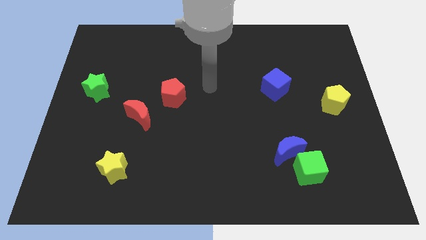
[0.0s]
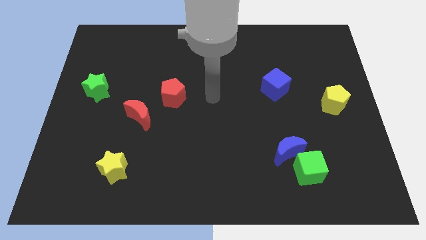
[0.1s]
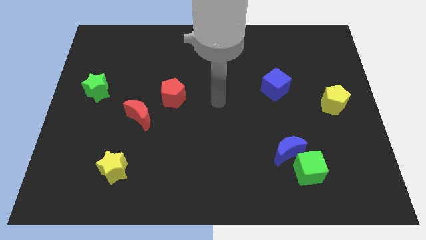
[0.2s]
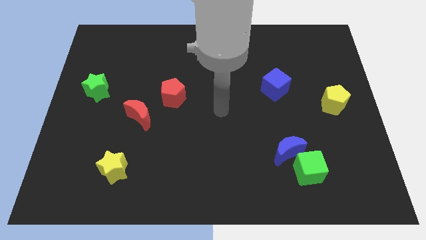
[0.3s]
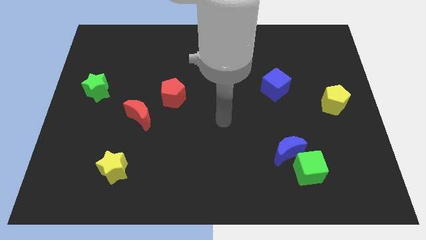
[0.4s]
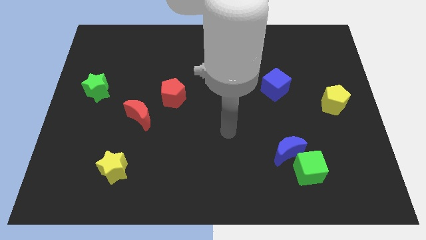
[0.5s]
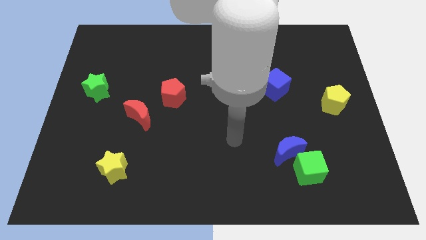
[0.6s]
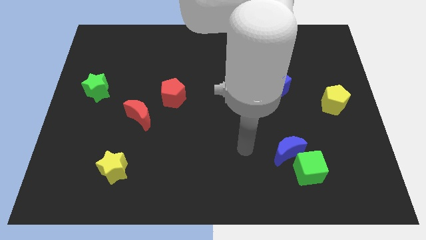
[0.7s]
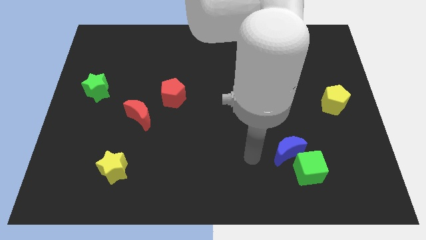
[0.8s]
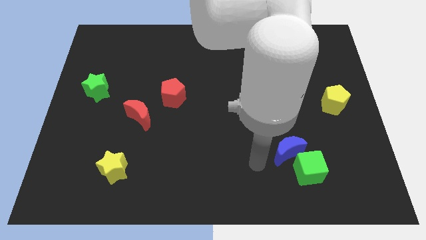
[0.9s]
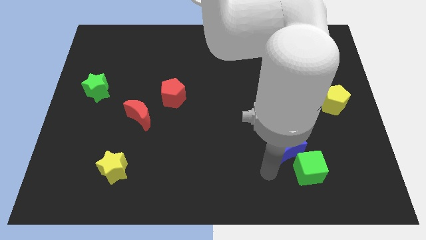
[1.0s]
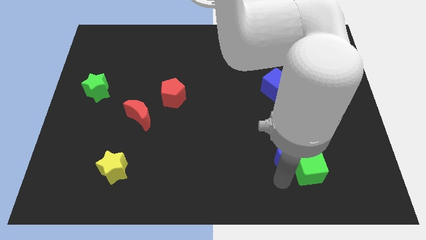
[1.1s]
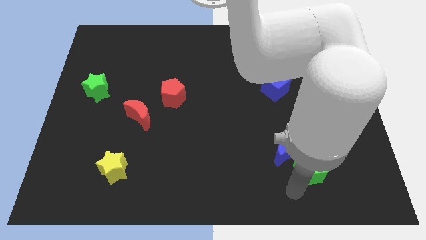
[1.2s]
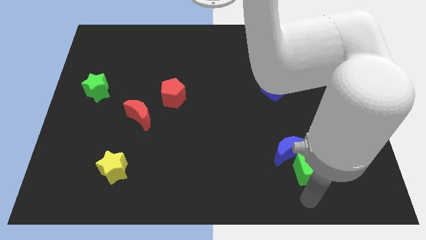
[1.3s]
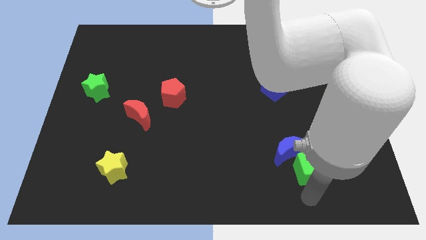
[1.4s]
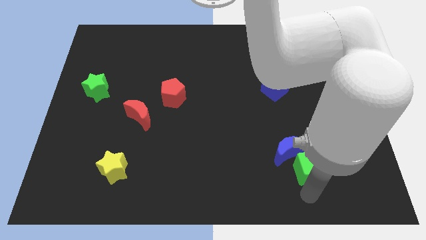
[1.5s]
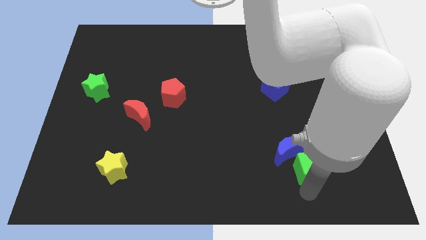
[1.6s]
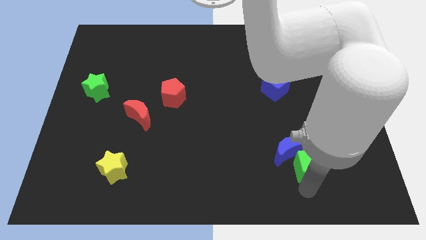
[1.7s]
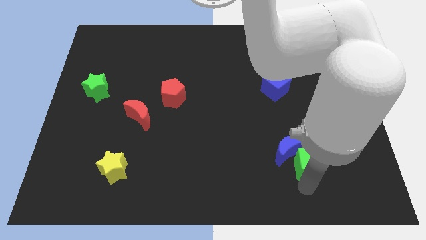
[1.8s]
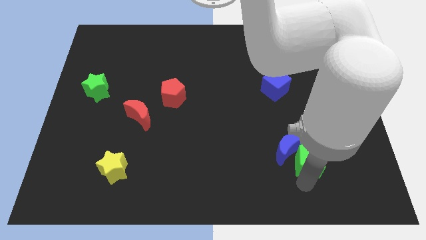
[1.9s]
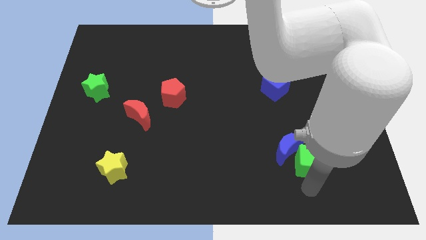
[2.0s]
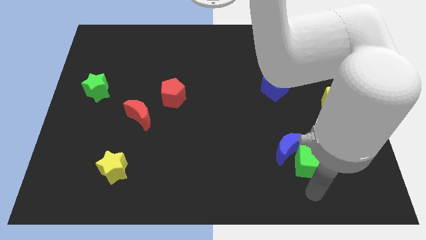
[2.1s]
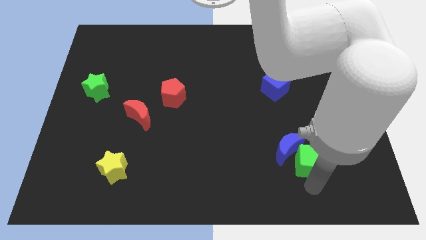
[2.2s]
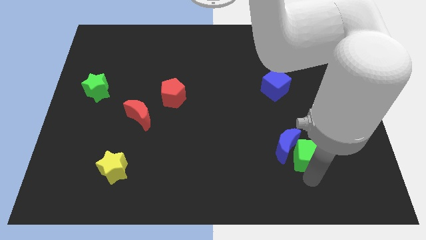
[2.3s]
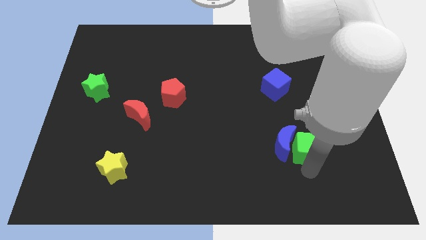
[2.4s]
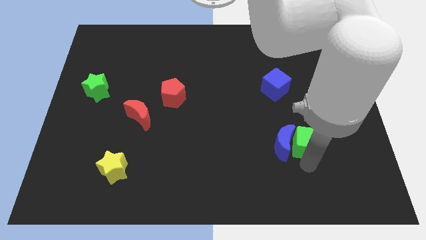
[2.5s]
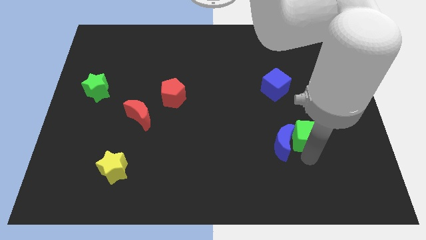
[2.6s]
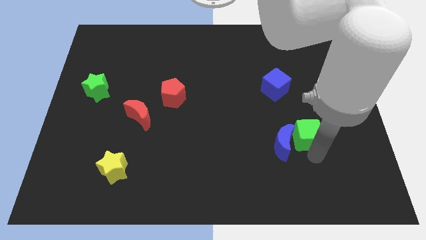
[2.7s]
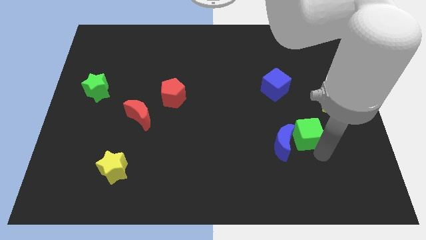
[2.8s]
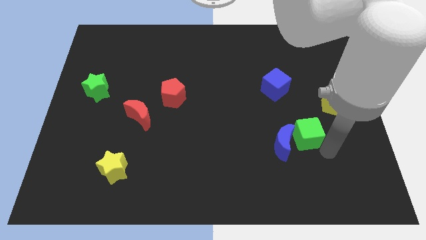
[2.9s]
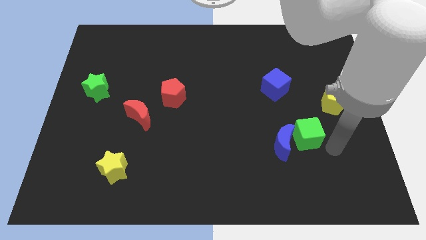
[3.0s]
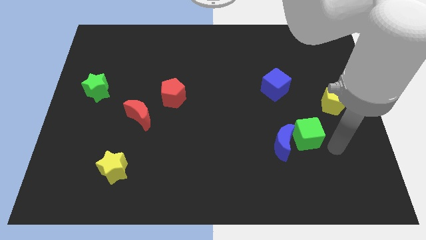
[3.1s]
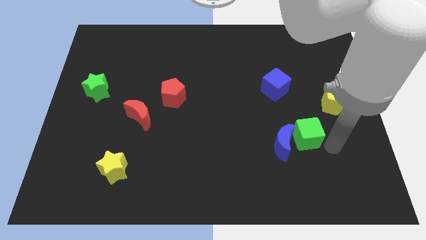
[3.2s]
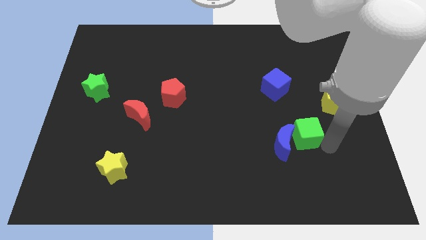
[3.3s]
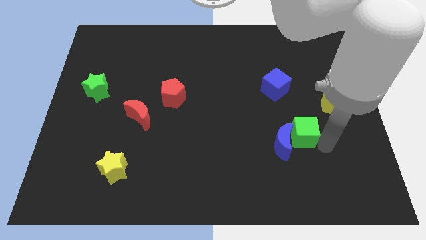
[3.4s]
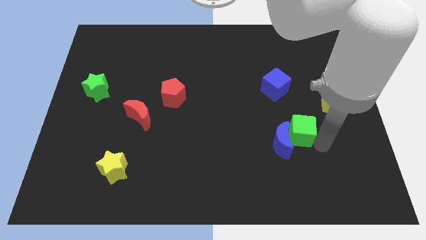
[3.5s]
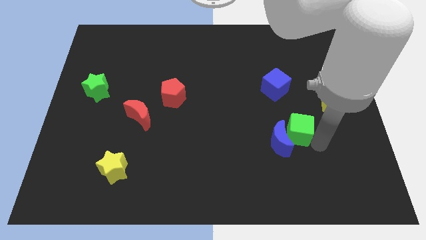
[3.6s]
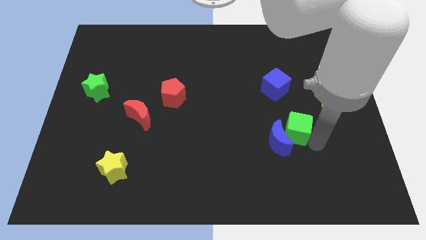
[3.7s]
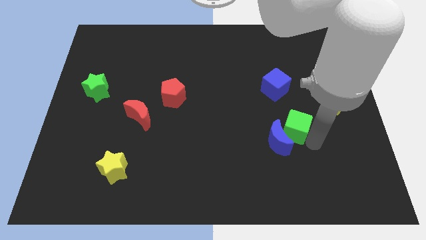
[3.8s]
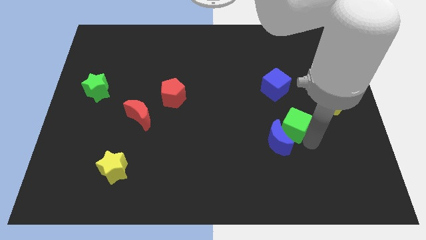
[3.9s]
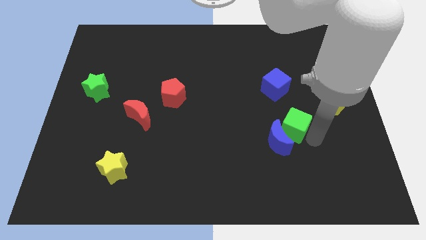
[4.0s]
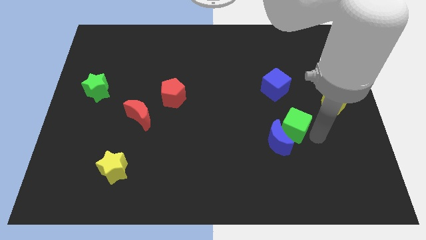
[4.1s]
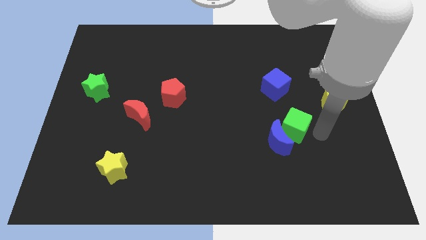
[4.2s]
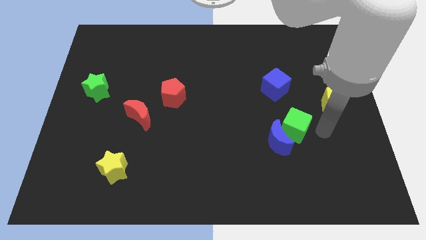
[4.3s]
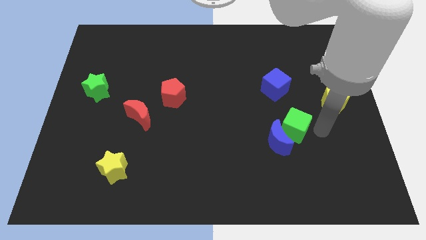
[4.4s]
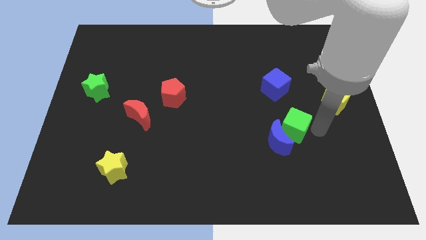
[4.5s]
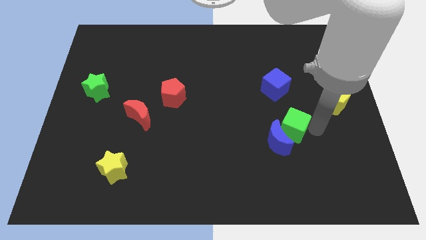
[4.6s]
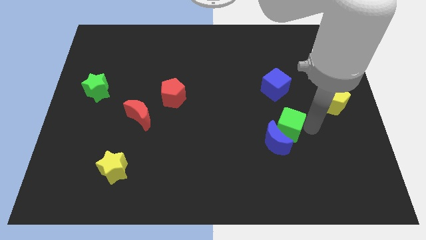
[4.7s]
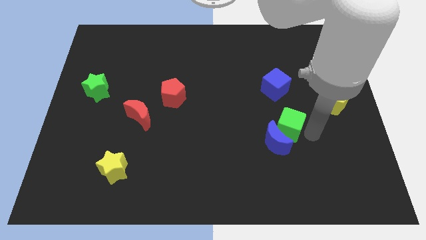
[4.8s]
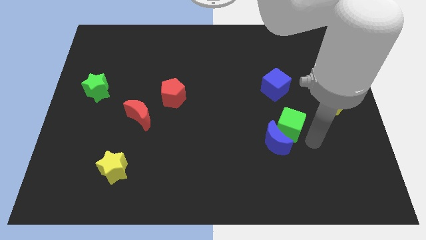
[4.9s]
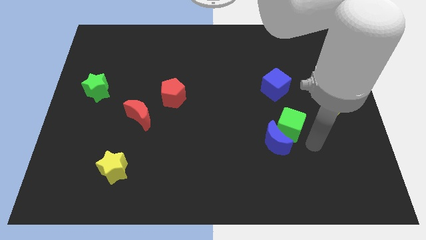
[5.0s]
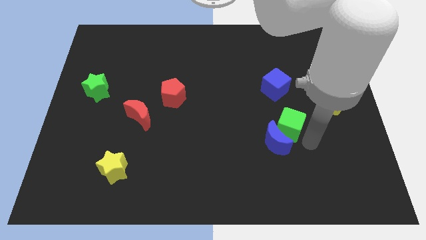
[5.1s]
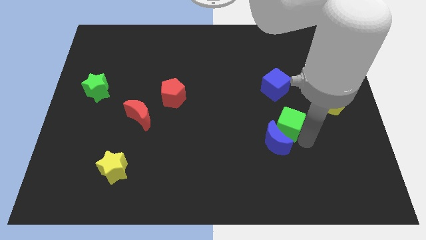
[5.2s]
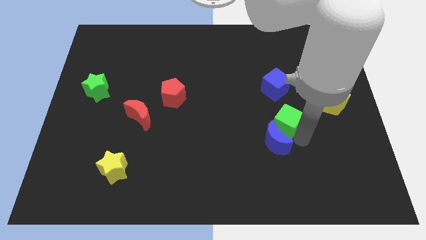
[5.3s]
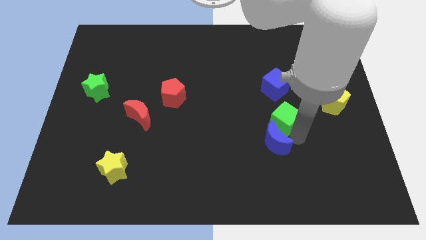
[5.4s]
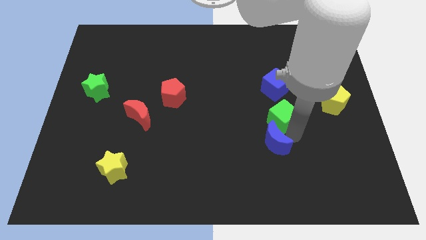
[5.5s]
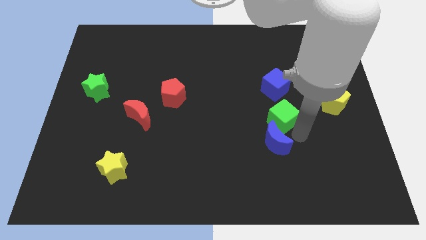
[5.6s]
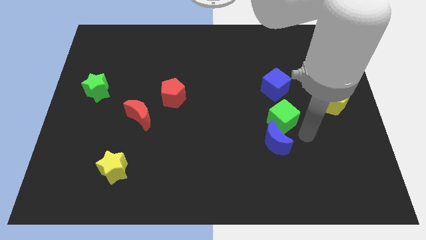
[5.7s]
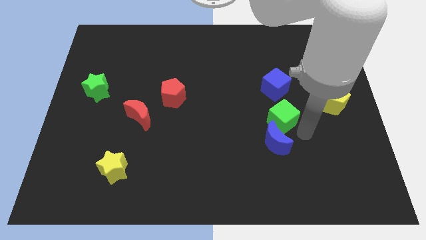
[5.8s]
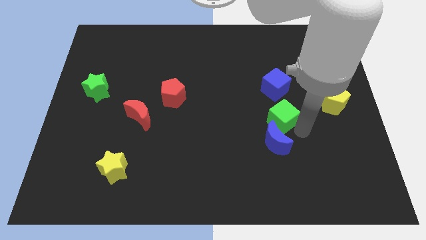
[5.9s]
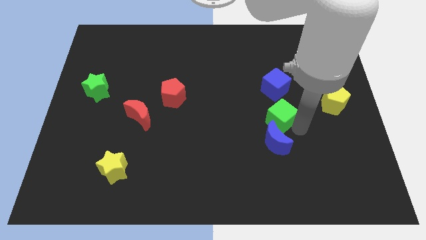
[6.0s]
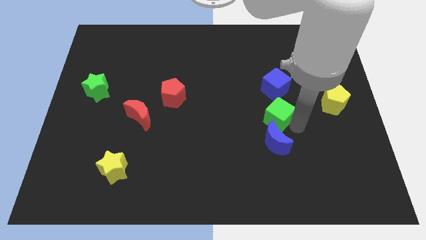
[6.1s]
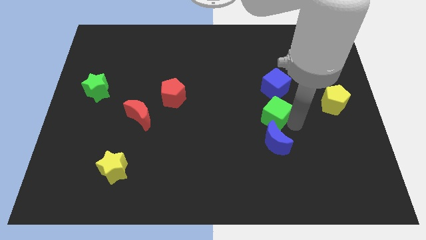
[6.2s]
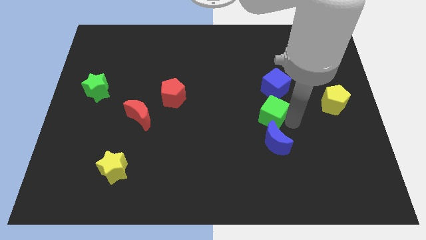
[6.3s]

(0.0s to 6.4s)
push the green cube diagonally down and to the left of the blue cube

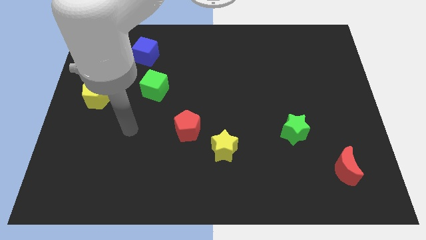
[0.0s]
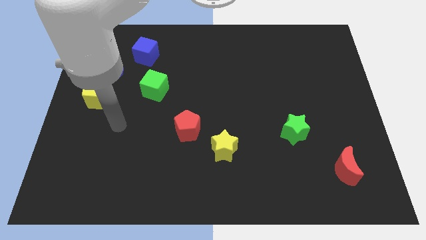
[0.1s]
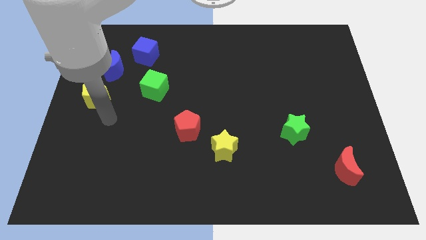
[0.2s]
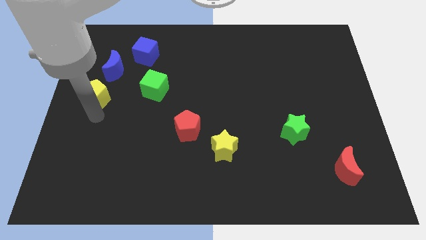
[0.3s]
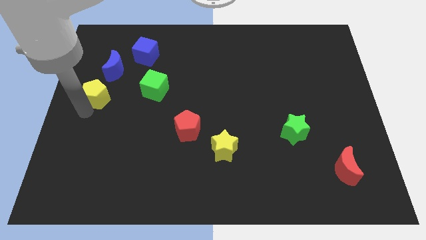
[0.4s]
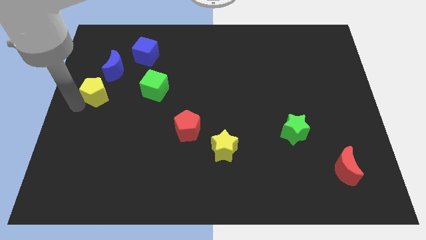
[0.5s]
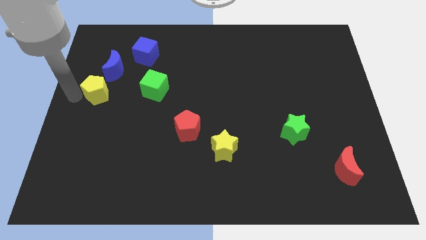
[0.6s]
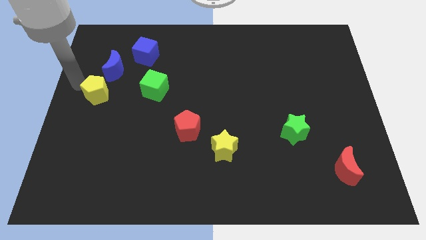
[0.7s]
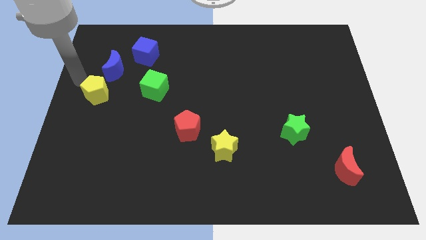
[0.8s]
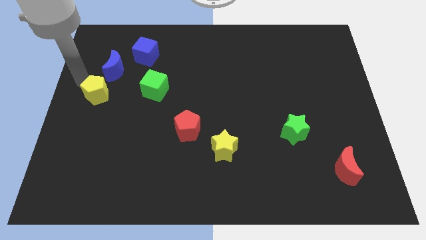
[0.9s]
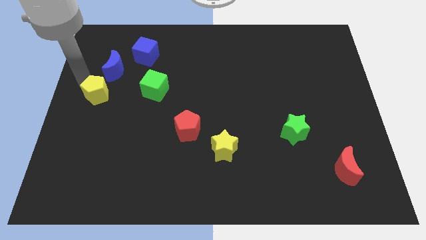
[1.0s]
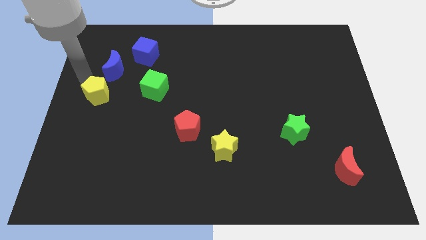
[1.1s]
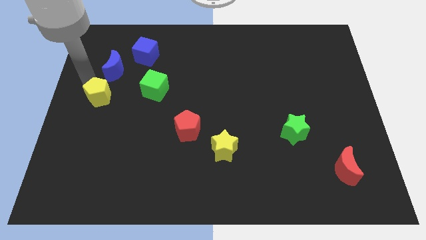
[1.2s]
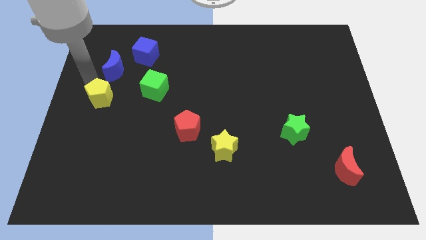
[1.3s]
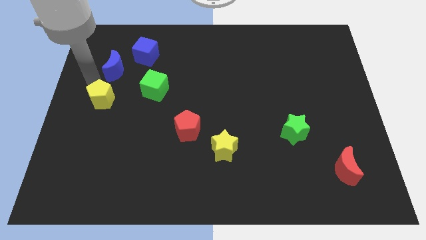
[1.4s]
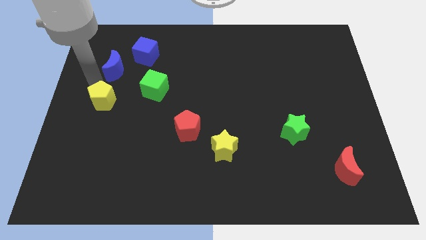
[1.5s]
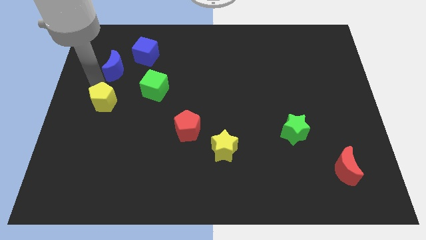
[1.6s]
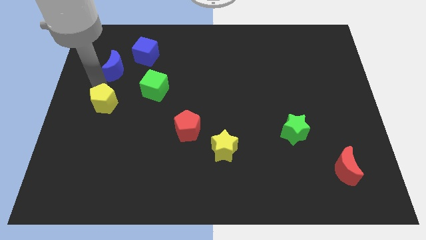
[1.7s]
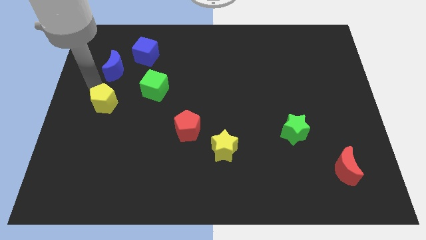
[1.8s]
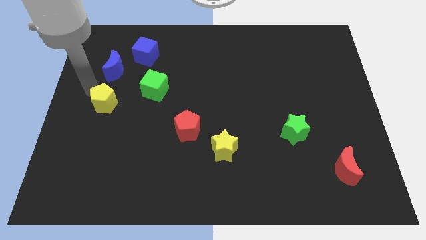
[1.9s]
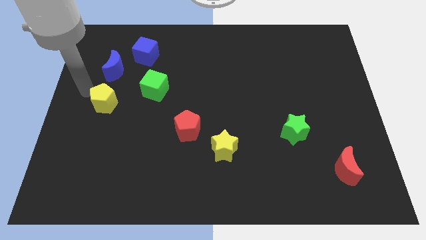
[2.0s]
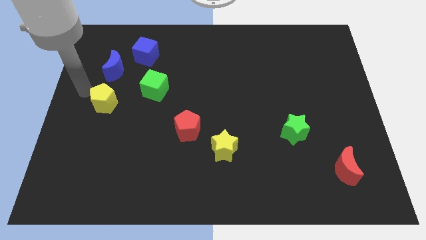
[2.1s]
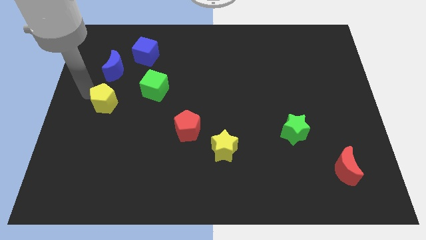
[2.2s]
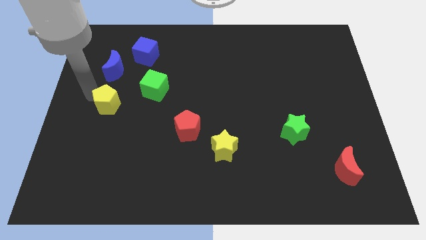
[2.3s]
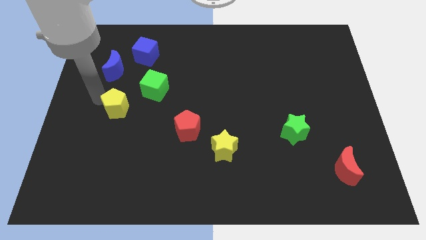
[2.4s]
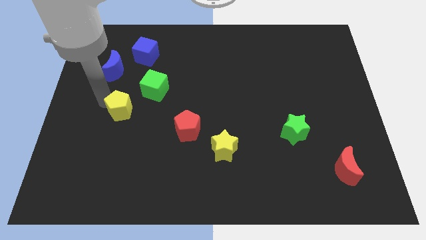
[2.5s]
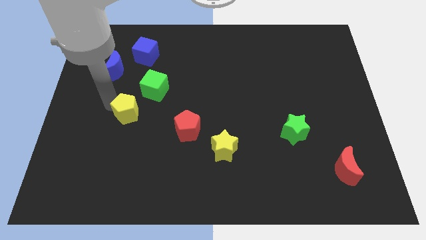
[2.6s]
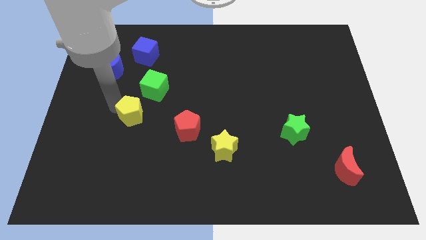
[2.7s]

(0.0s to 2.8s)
put the yellow pentagon to the bottom side of the green cube
